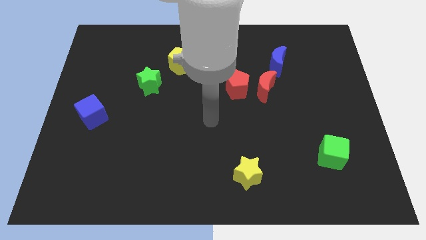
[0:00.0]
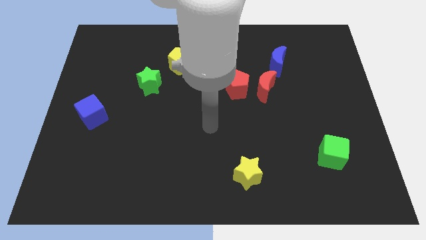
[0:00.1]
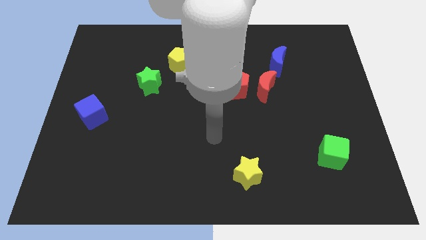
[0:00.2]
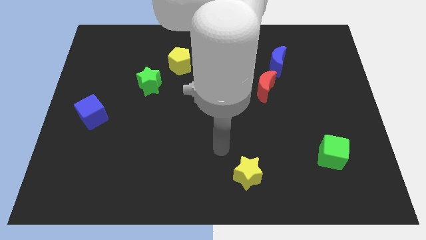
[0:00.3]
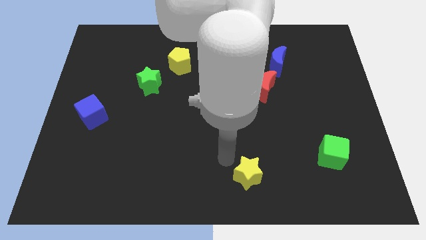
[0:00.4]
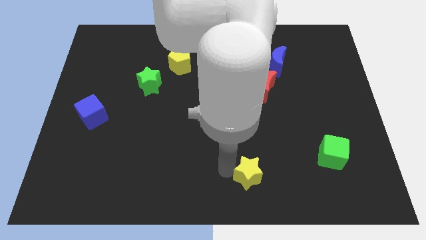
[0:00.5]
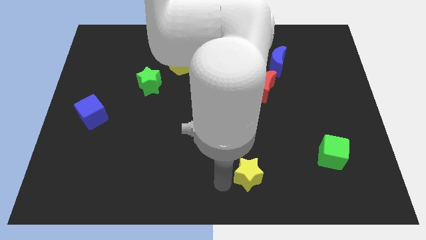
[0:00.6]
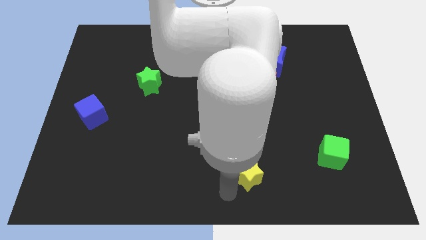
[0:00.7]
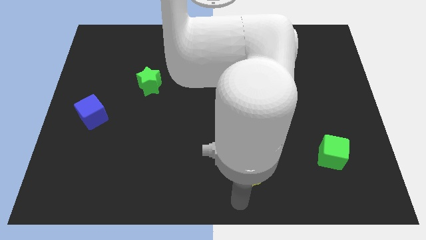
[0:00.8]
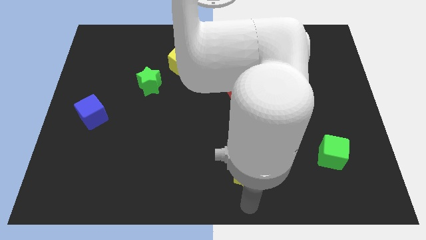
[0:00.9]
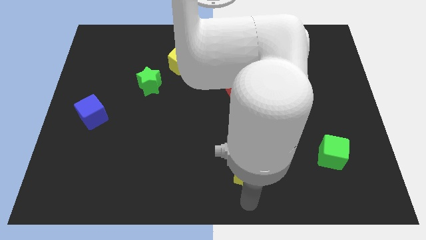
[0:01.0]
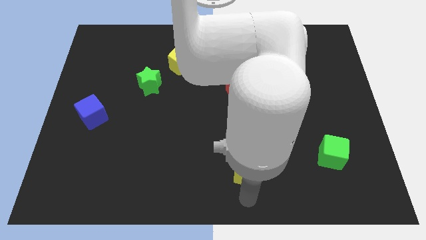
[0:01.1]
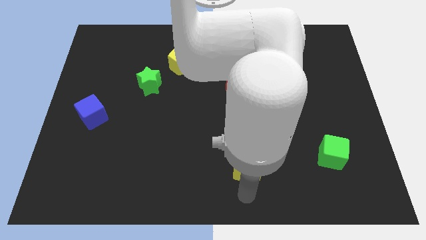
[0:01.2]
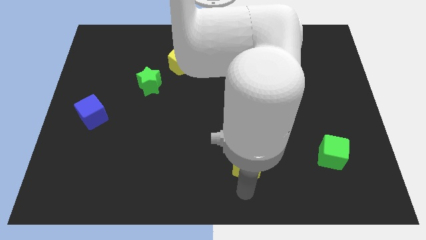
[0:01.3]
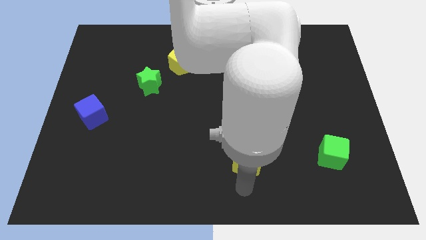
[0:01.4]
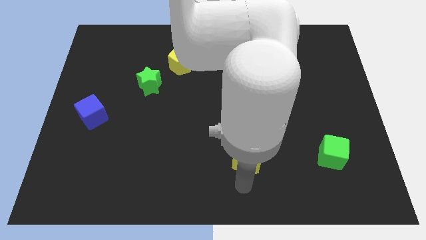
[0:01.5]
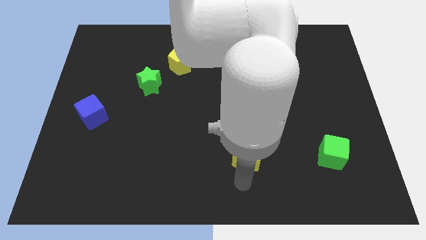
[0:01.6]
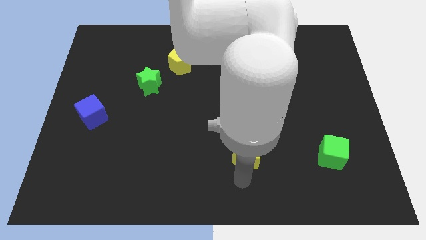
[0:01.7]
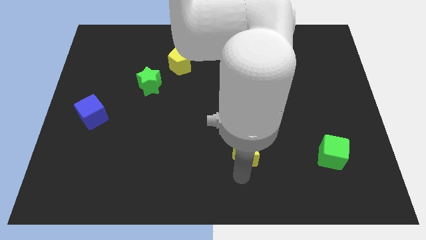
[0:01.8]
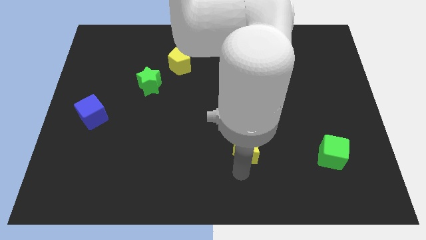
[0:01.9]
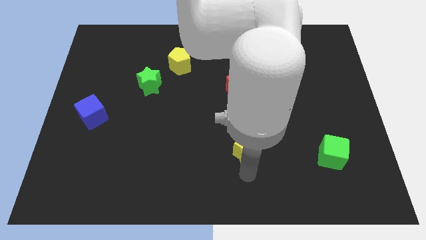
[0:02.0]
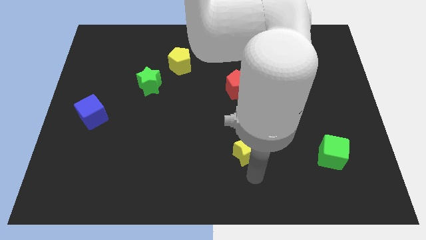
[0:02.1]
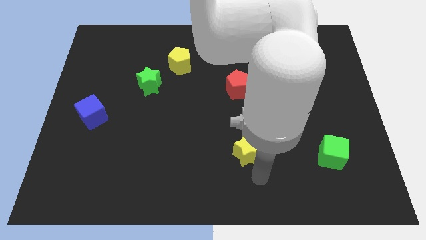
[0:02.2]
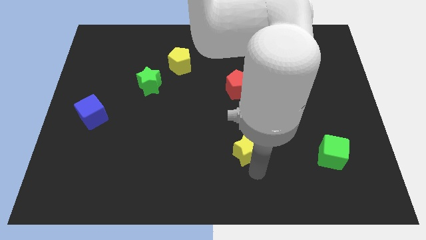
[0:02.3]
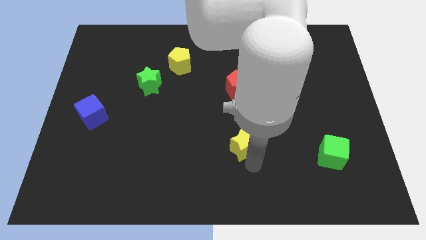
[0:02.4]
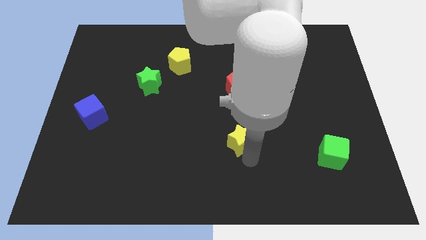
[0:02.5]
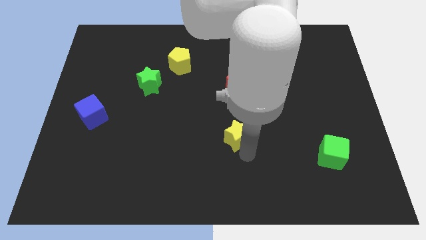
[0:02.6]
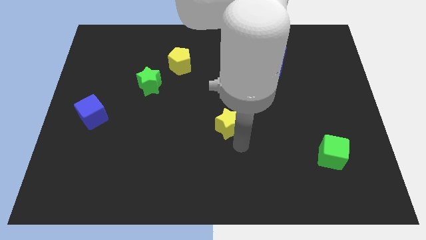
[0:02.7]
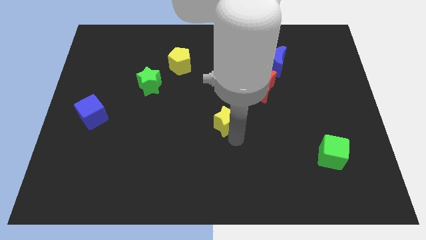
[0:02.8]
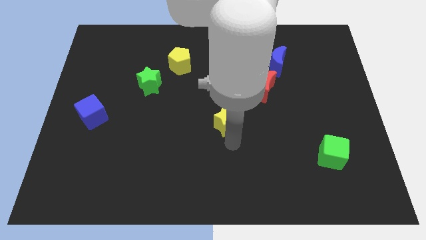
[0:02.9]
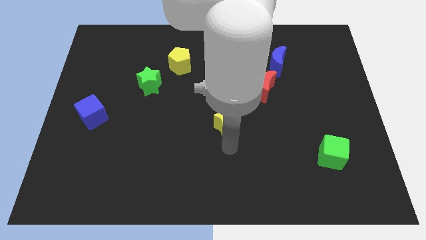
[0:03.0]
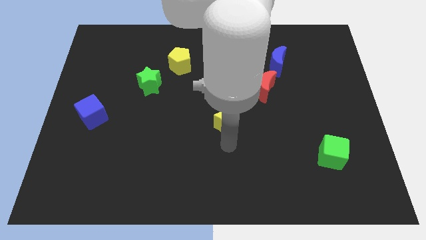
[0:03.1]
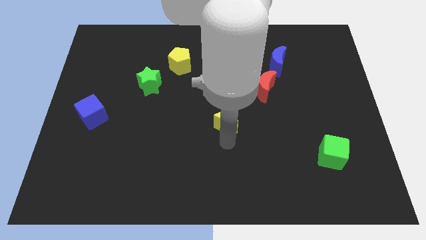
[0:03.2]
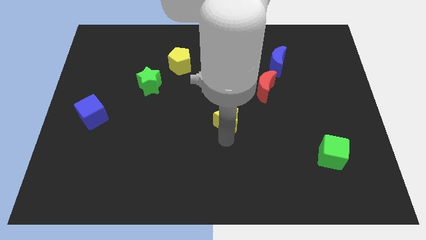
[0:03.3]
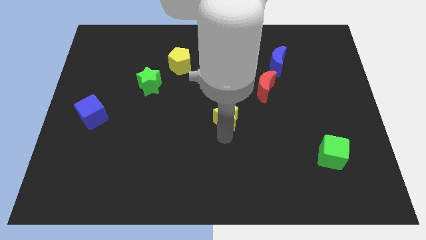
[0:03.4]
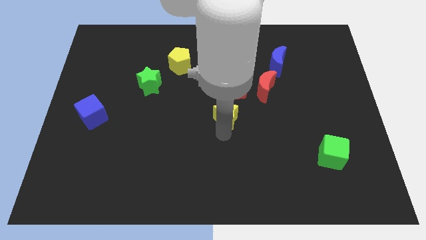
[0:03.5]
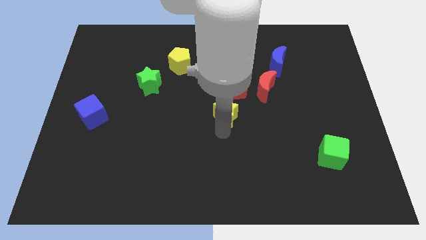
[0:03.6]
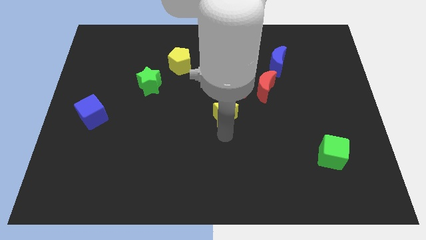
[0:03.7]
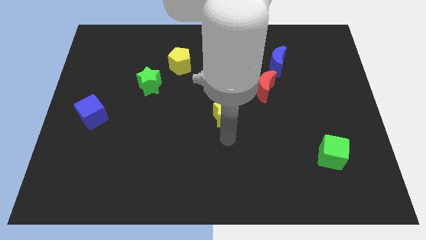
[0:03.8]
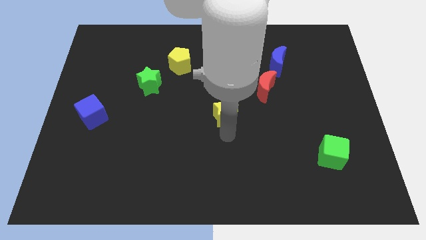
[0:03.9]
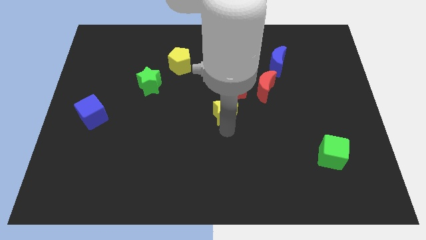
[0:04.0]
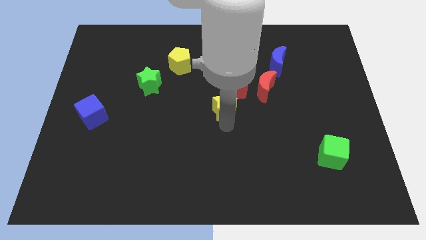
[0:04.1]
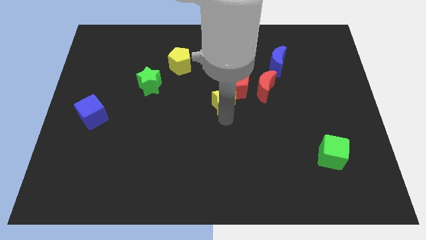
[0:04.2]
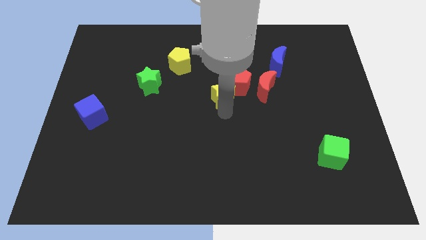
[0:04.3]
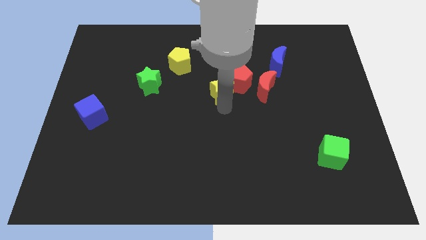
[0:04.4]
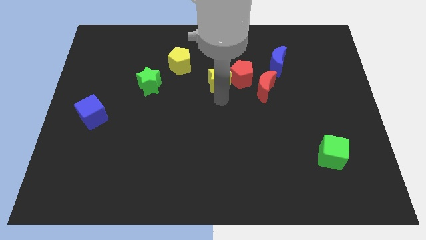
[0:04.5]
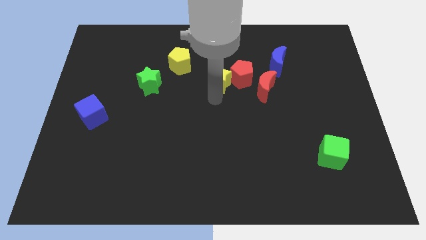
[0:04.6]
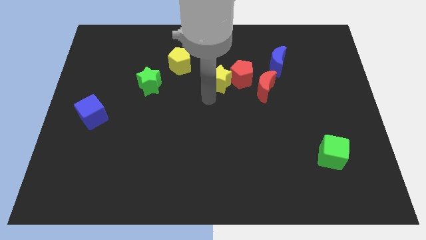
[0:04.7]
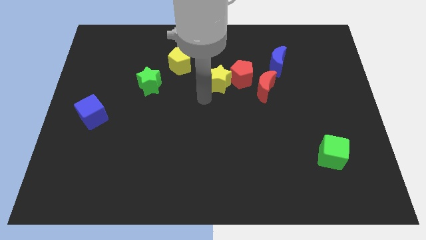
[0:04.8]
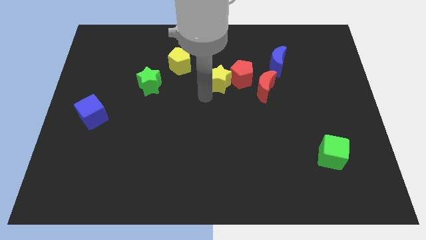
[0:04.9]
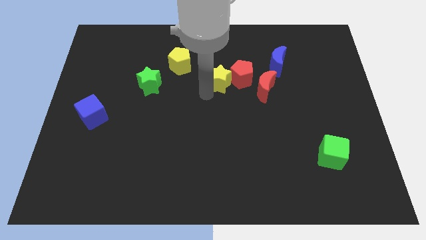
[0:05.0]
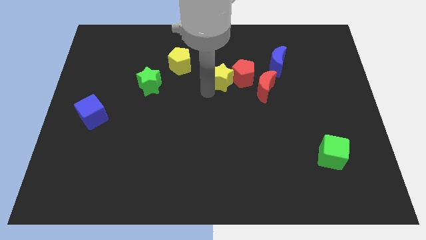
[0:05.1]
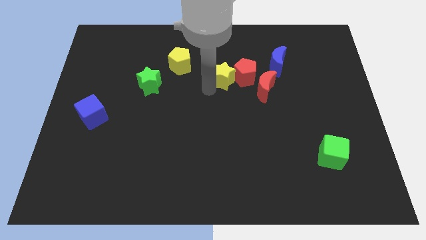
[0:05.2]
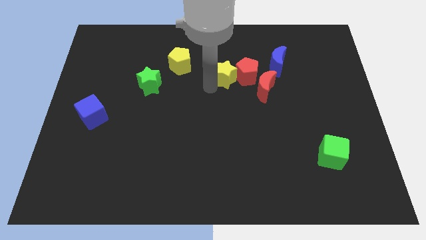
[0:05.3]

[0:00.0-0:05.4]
put the yellow star to the left of the blue moon

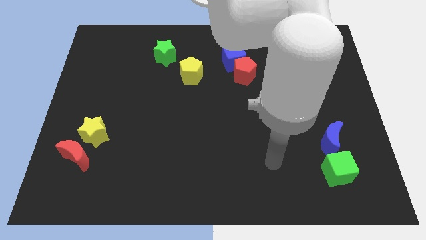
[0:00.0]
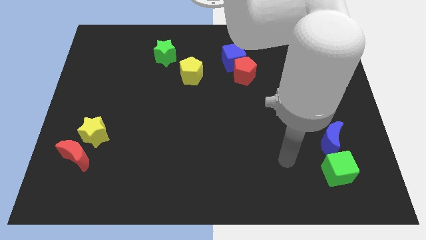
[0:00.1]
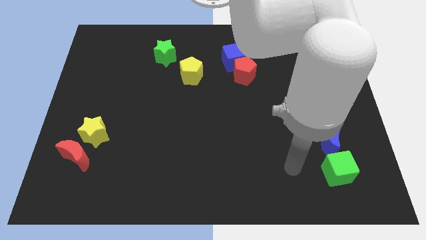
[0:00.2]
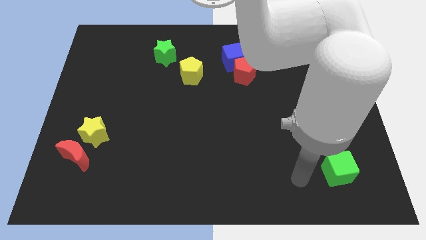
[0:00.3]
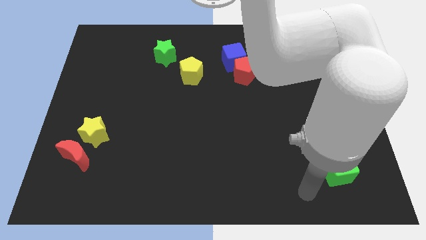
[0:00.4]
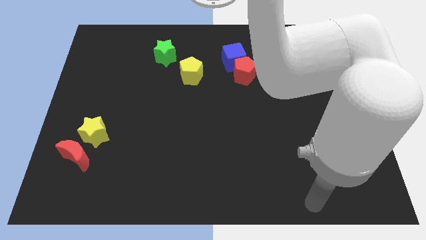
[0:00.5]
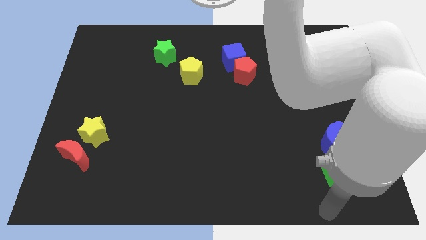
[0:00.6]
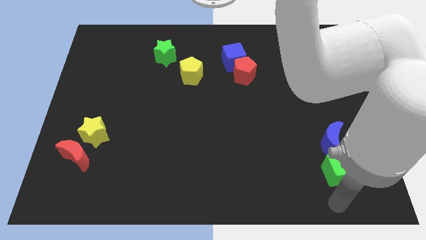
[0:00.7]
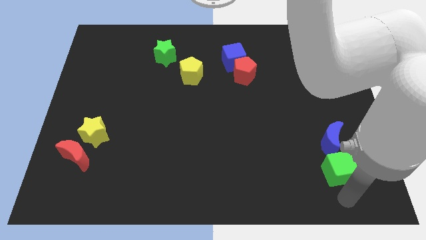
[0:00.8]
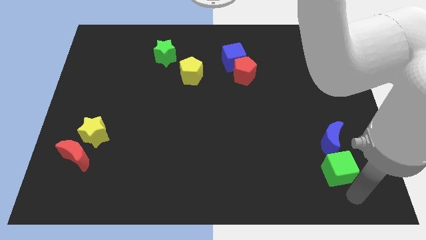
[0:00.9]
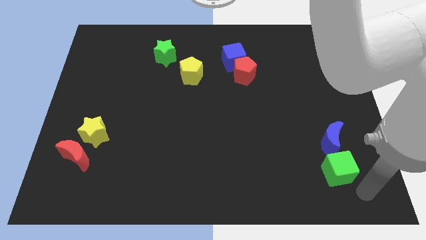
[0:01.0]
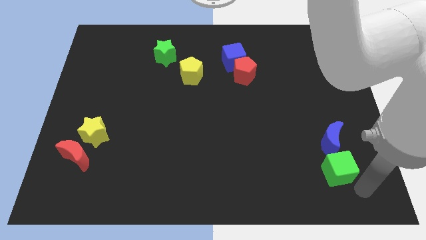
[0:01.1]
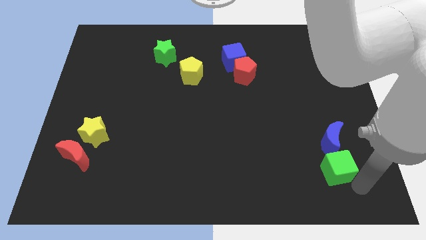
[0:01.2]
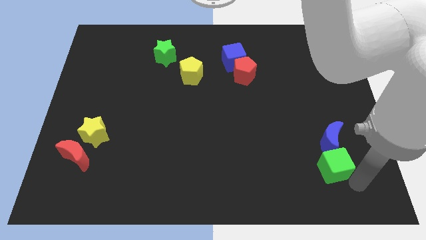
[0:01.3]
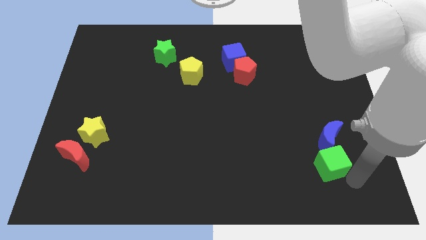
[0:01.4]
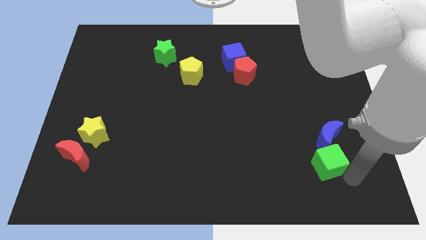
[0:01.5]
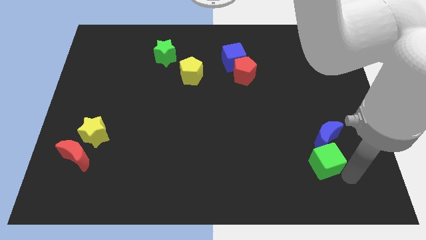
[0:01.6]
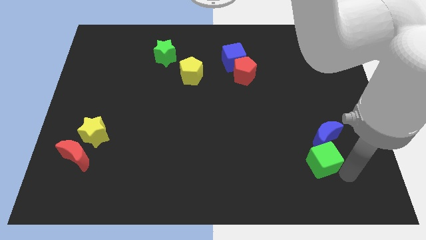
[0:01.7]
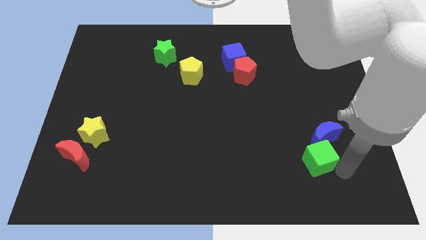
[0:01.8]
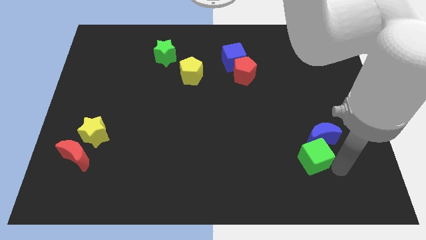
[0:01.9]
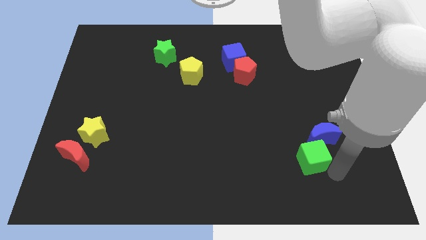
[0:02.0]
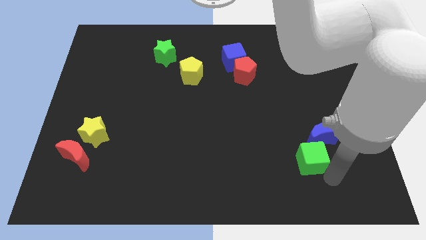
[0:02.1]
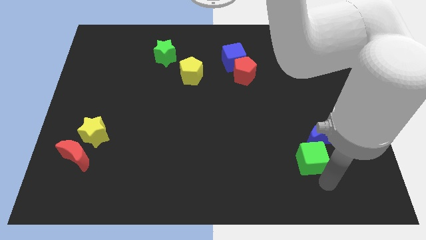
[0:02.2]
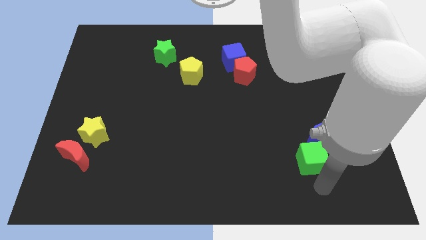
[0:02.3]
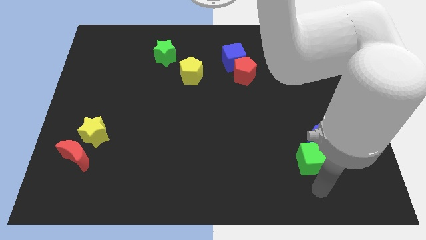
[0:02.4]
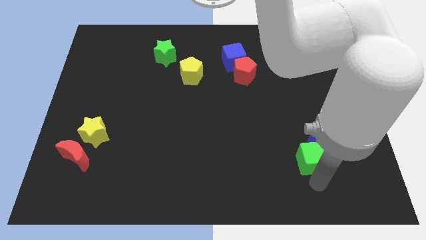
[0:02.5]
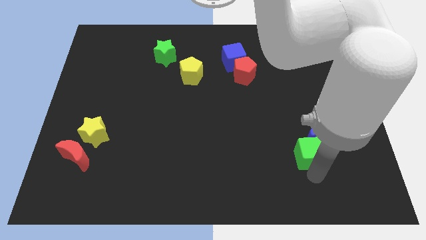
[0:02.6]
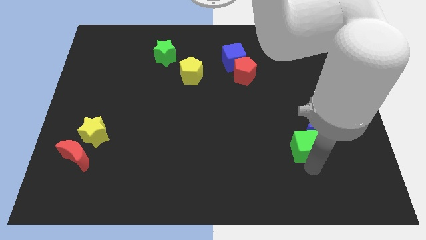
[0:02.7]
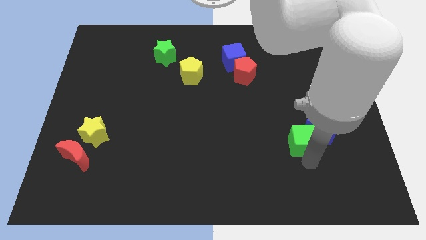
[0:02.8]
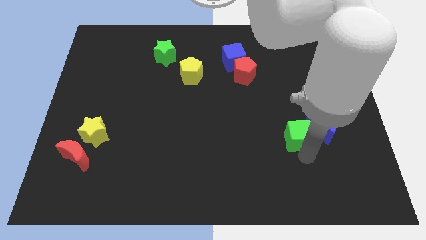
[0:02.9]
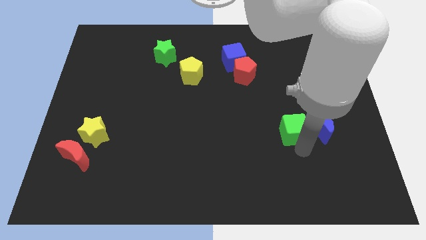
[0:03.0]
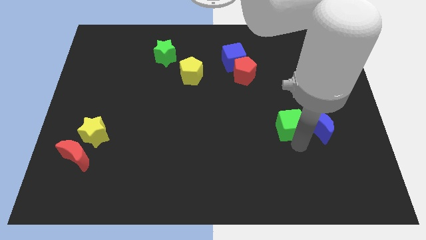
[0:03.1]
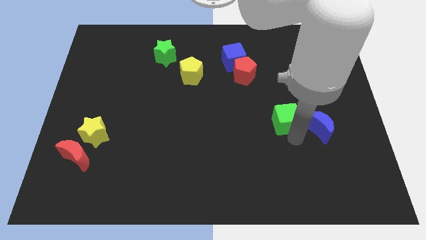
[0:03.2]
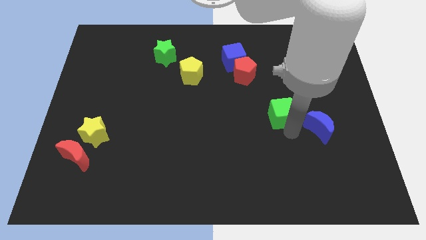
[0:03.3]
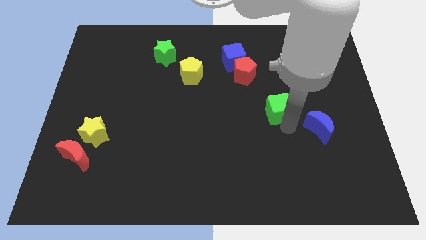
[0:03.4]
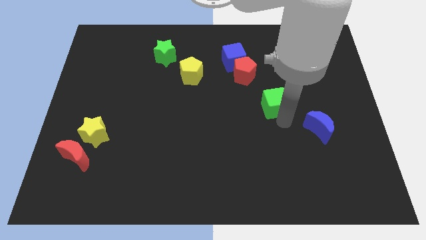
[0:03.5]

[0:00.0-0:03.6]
slide the green cube diagonally down and to the right of the red pentagon
